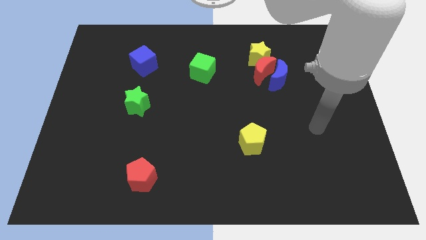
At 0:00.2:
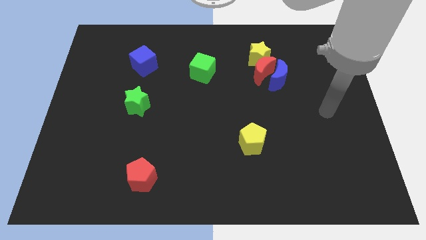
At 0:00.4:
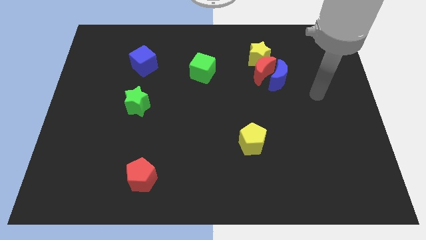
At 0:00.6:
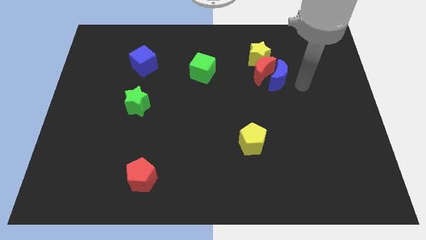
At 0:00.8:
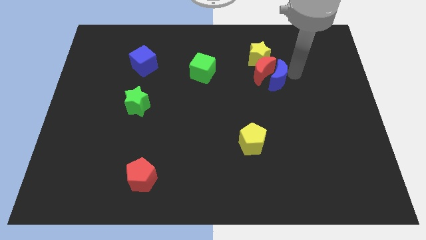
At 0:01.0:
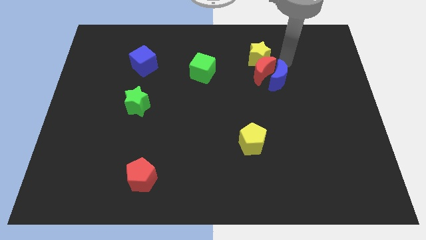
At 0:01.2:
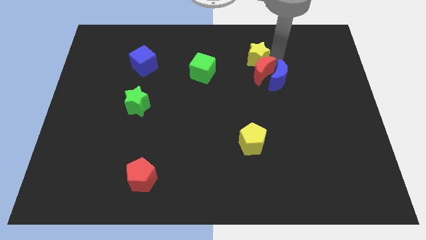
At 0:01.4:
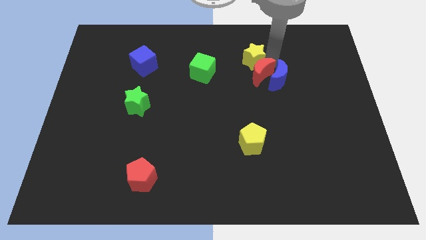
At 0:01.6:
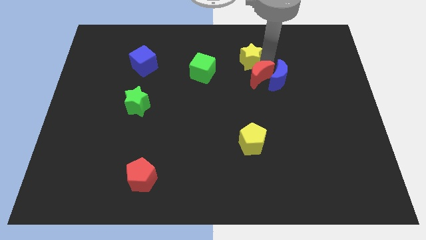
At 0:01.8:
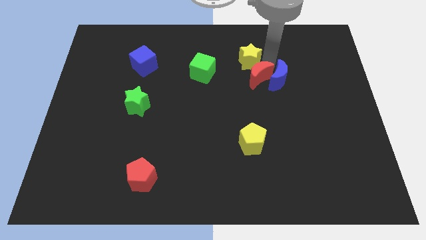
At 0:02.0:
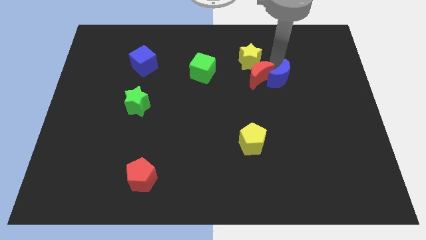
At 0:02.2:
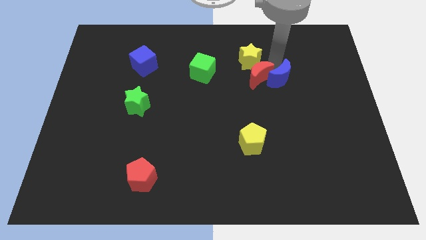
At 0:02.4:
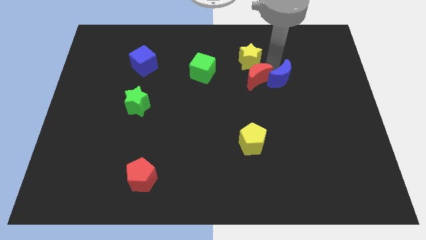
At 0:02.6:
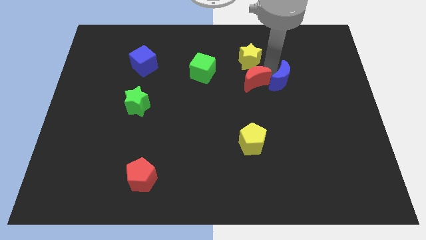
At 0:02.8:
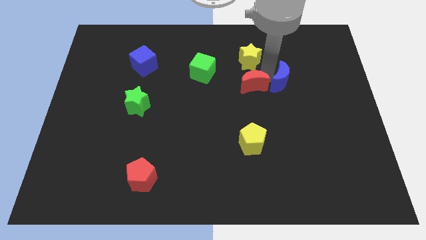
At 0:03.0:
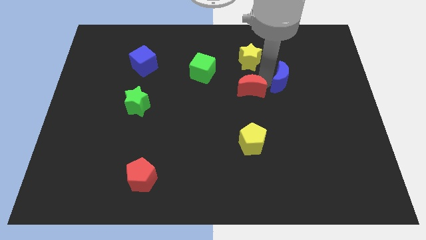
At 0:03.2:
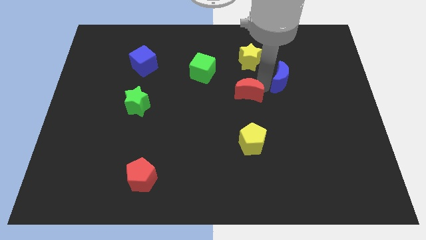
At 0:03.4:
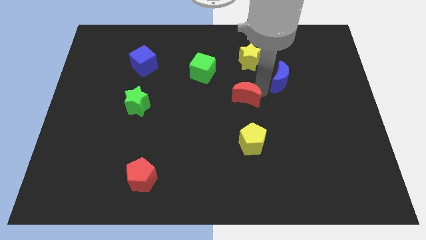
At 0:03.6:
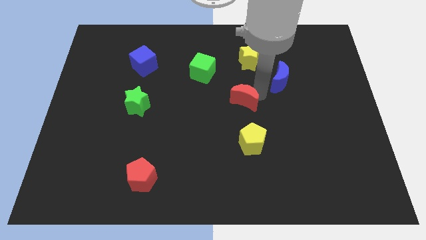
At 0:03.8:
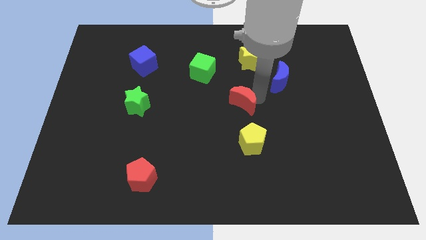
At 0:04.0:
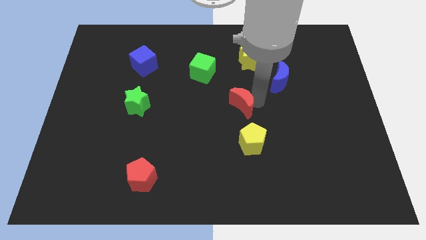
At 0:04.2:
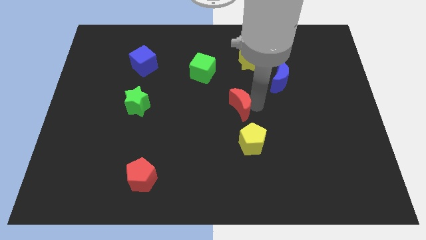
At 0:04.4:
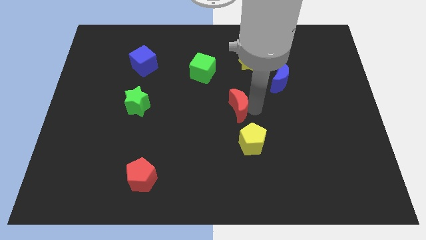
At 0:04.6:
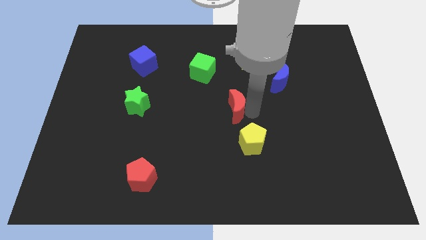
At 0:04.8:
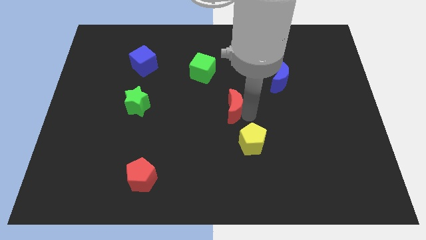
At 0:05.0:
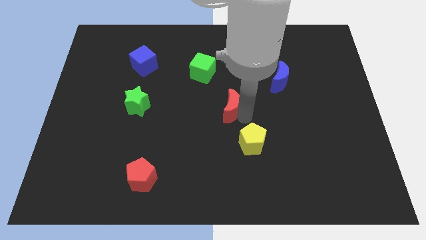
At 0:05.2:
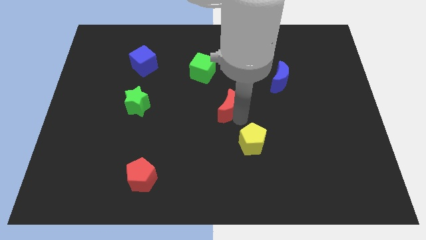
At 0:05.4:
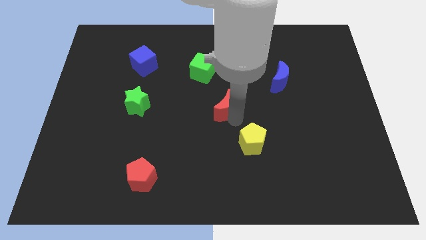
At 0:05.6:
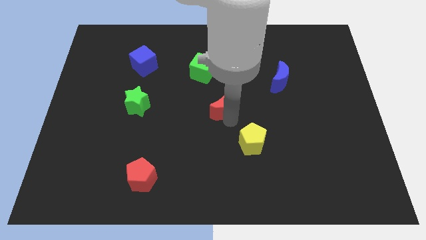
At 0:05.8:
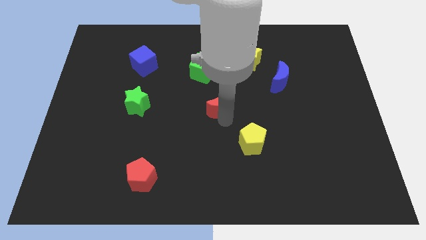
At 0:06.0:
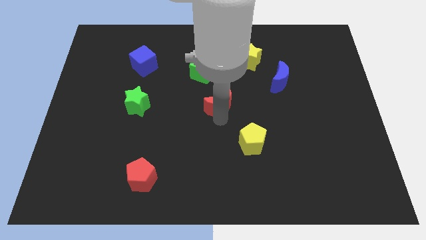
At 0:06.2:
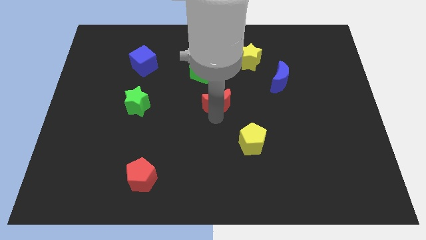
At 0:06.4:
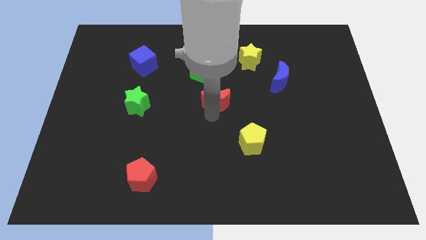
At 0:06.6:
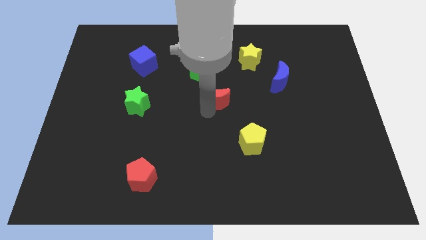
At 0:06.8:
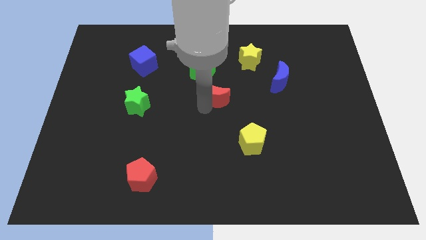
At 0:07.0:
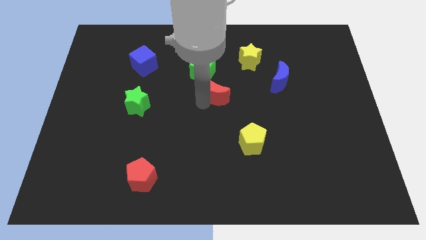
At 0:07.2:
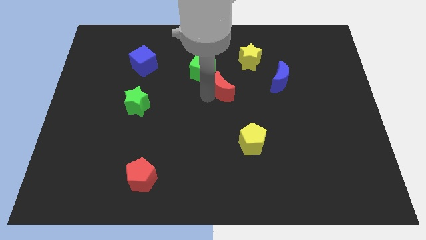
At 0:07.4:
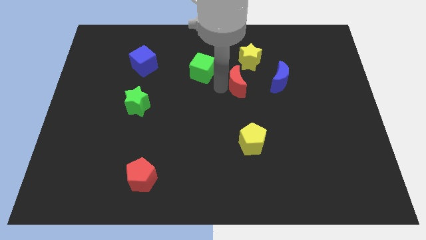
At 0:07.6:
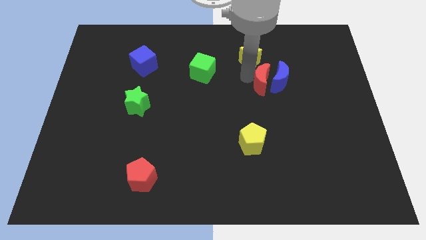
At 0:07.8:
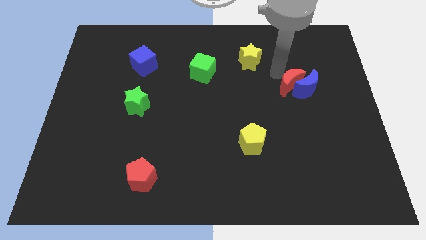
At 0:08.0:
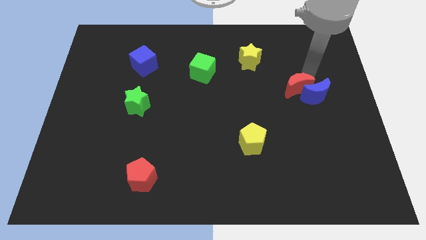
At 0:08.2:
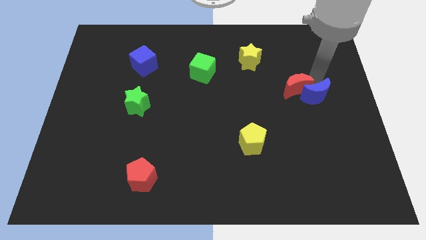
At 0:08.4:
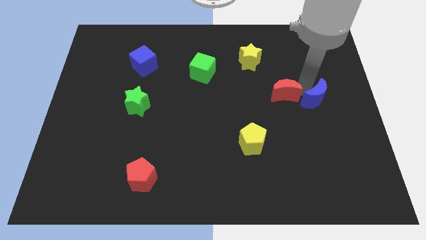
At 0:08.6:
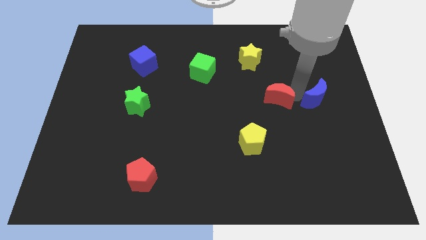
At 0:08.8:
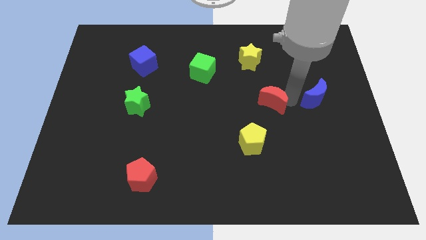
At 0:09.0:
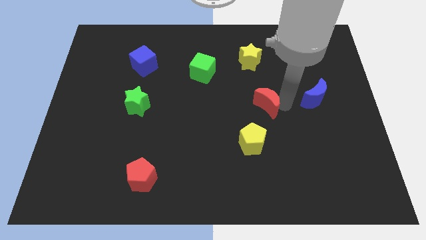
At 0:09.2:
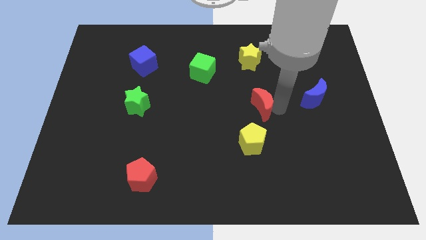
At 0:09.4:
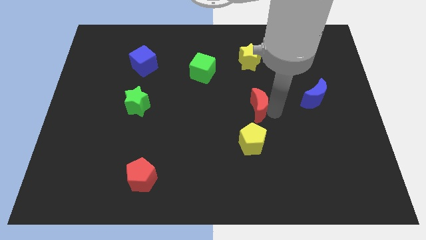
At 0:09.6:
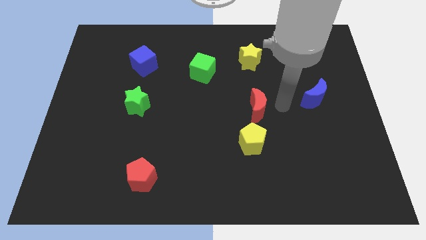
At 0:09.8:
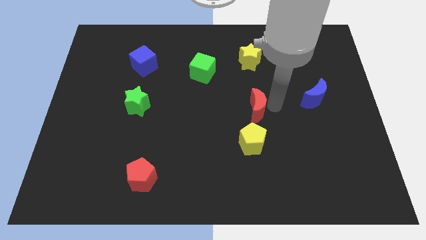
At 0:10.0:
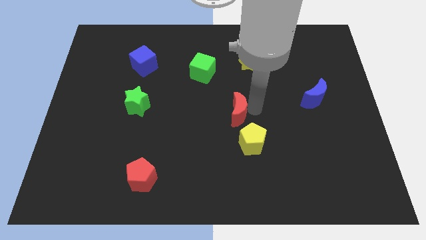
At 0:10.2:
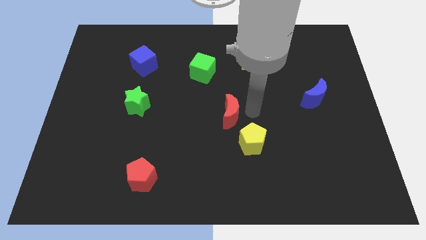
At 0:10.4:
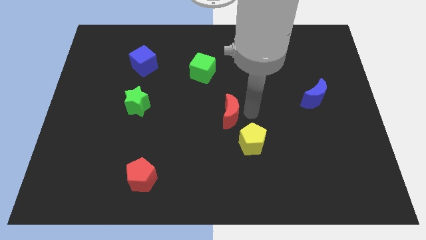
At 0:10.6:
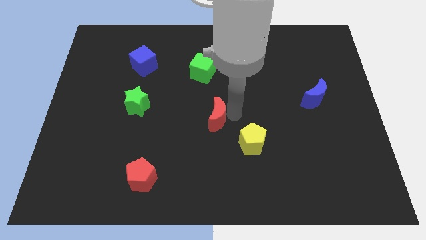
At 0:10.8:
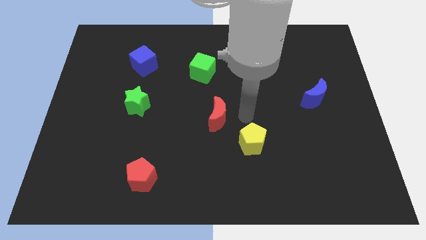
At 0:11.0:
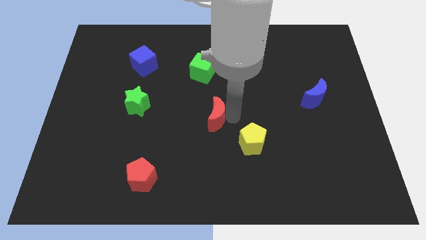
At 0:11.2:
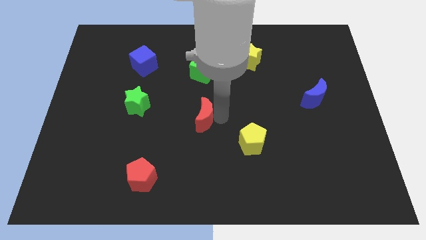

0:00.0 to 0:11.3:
move the red moon down and then to the left

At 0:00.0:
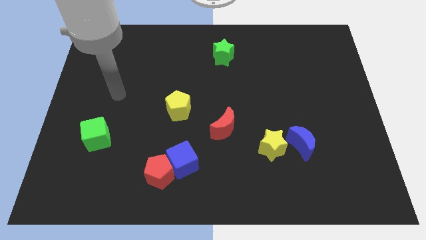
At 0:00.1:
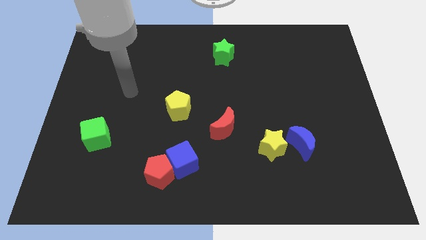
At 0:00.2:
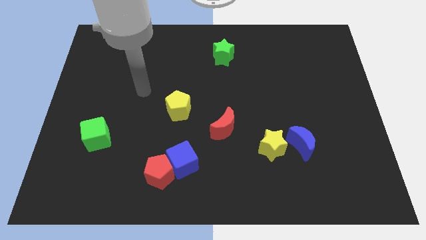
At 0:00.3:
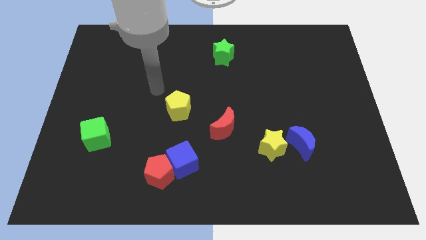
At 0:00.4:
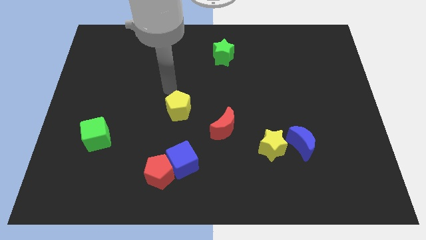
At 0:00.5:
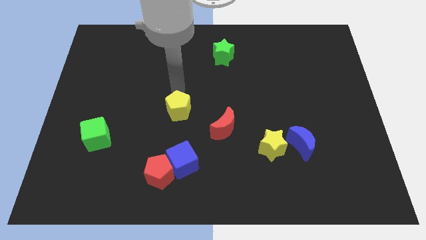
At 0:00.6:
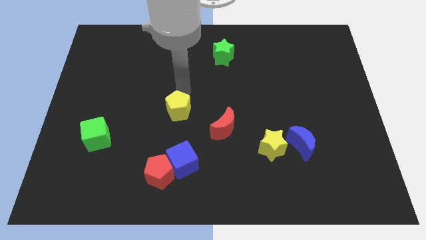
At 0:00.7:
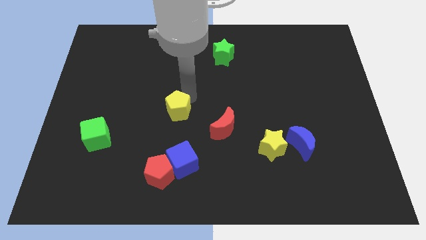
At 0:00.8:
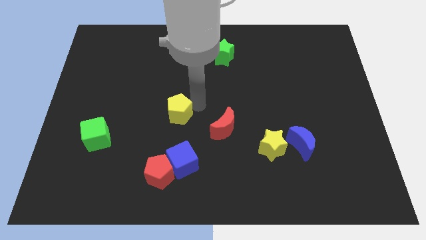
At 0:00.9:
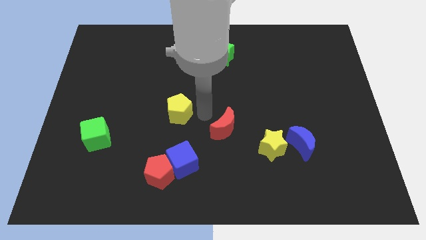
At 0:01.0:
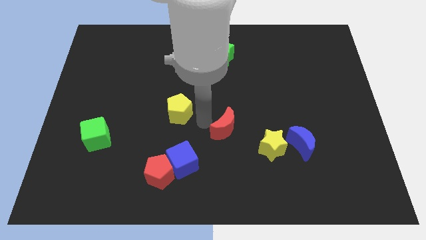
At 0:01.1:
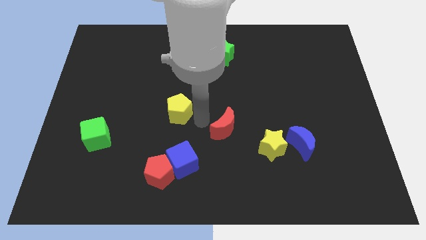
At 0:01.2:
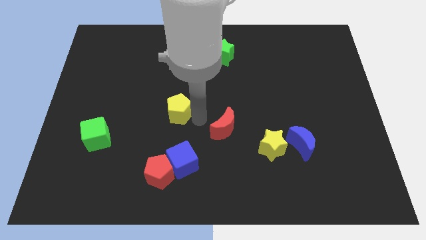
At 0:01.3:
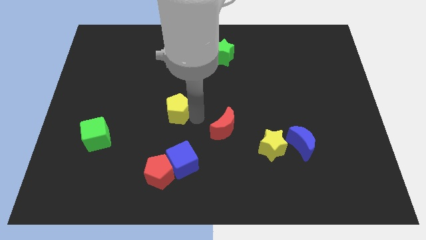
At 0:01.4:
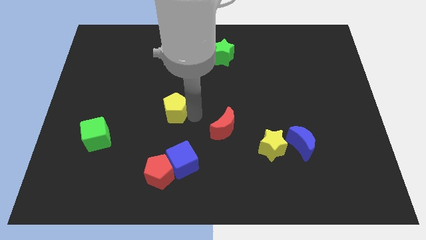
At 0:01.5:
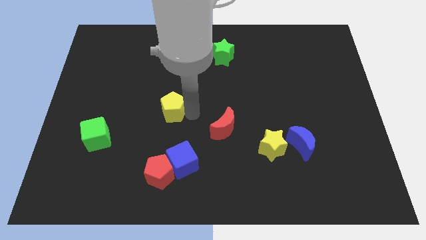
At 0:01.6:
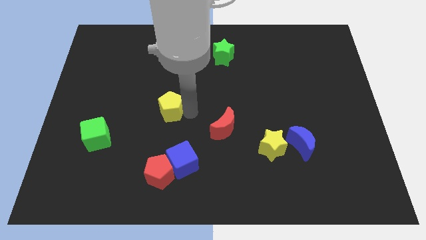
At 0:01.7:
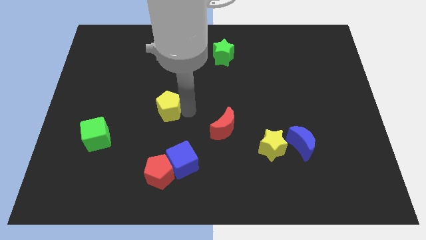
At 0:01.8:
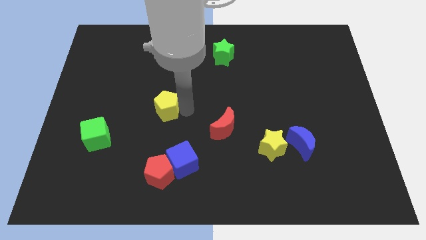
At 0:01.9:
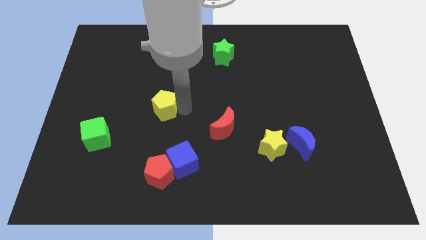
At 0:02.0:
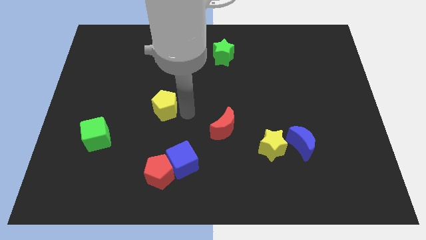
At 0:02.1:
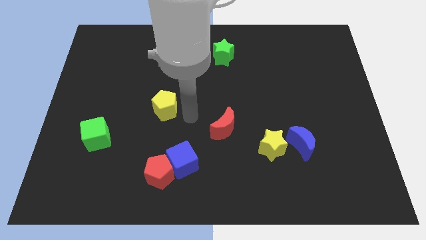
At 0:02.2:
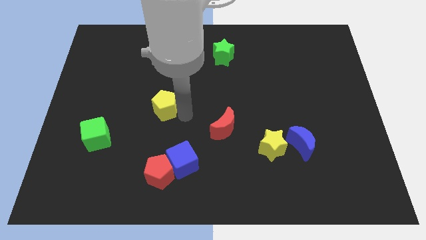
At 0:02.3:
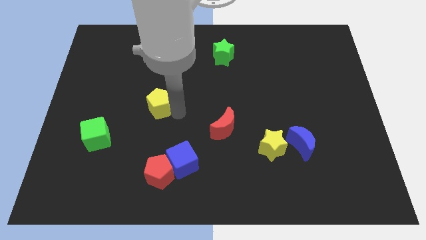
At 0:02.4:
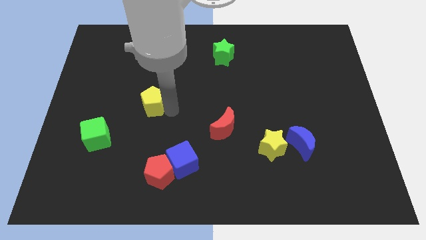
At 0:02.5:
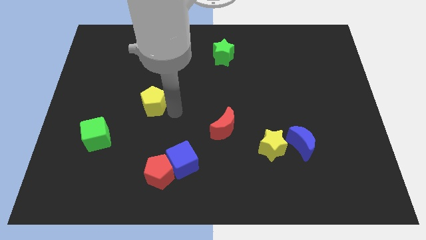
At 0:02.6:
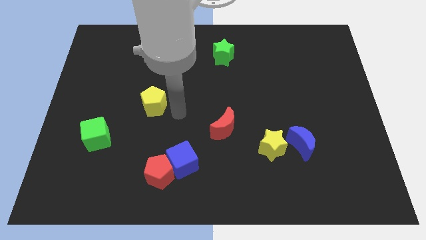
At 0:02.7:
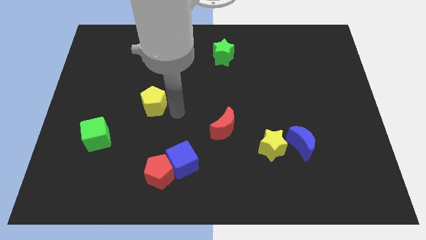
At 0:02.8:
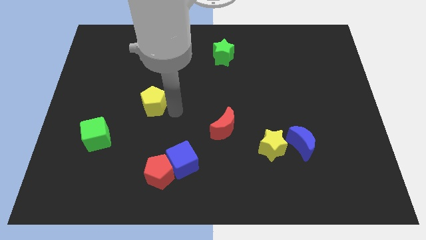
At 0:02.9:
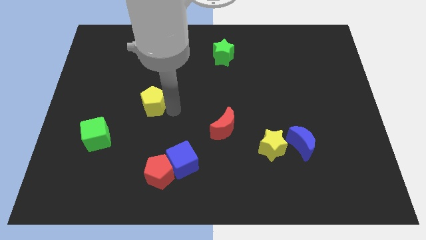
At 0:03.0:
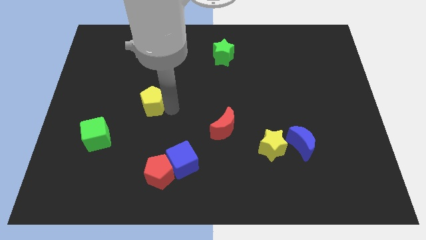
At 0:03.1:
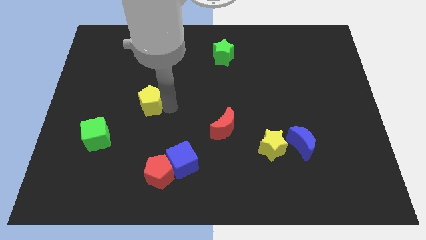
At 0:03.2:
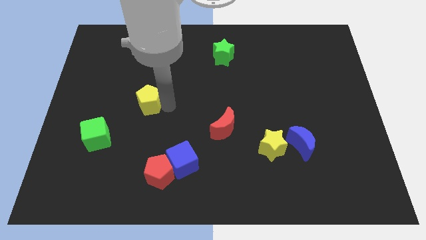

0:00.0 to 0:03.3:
push the yellow pentagon a little bit to the left
